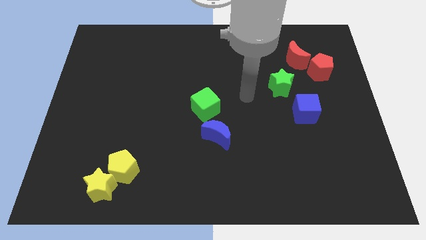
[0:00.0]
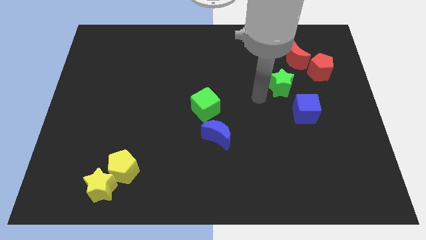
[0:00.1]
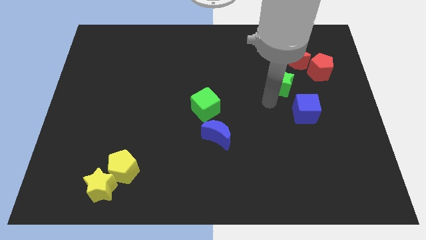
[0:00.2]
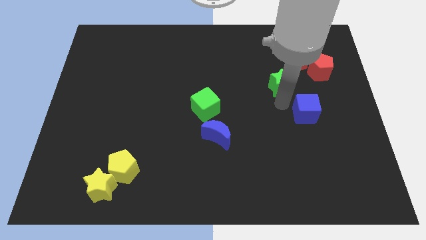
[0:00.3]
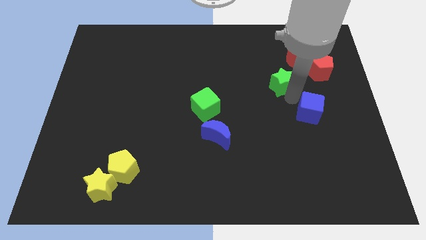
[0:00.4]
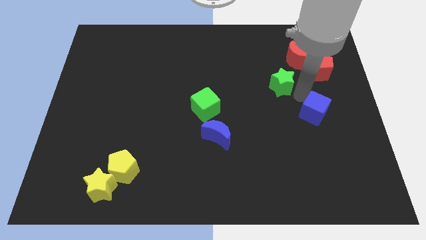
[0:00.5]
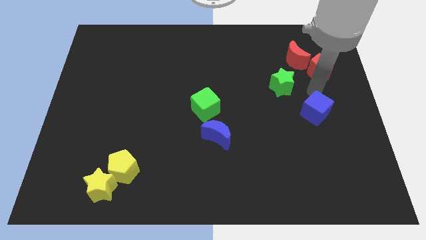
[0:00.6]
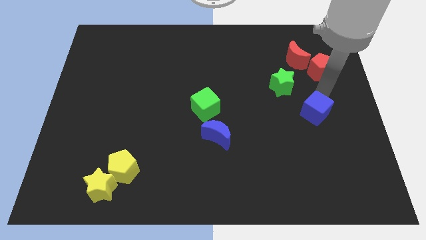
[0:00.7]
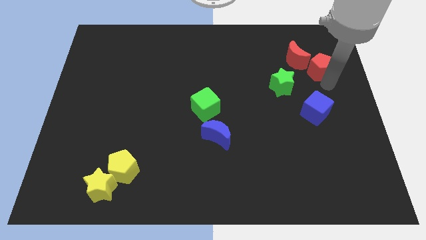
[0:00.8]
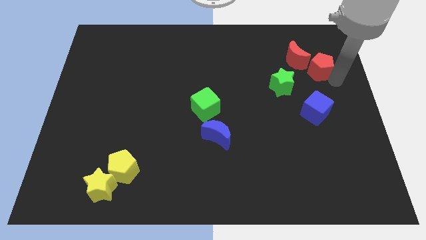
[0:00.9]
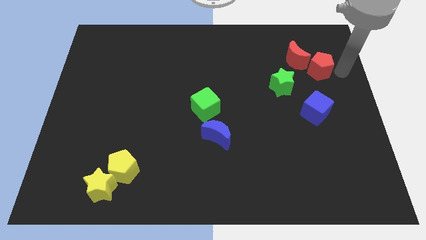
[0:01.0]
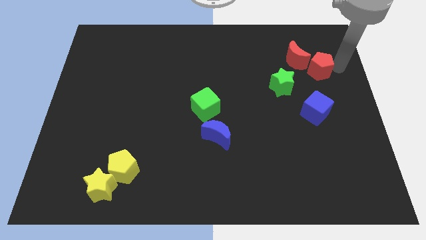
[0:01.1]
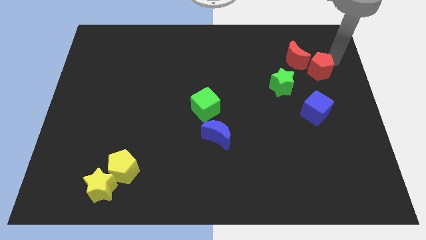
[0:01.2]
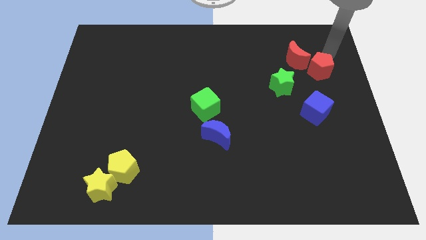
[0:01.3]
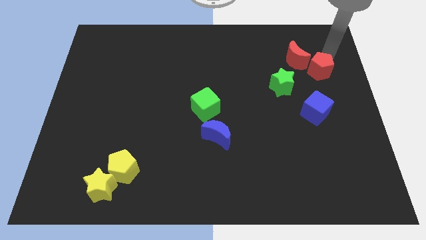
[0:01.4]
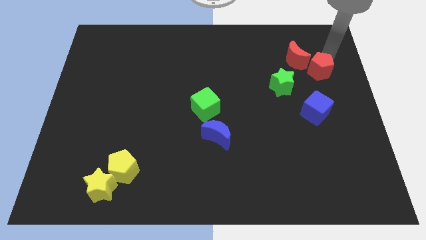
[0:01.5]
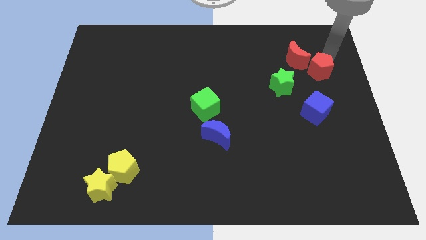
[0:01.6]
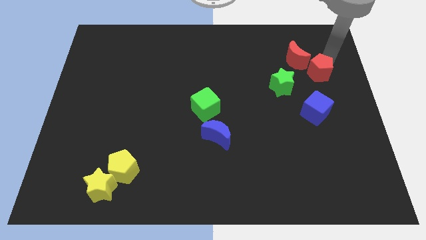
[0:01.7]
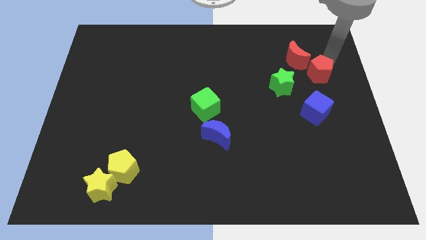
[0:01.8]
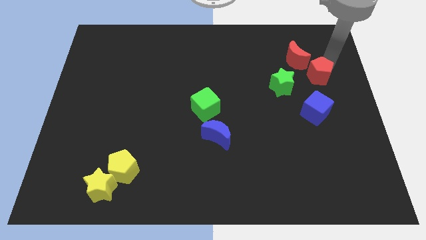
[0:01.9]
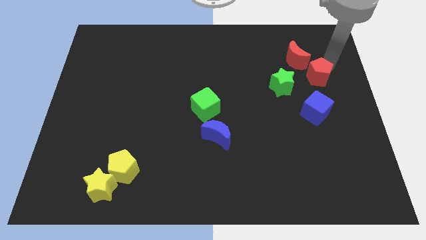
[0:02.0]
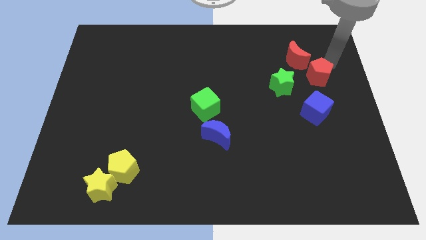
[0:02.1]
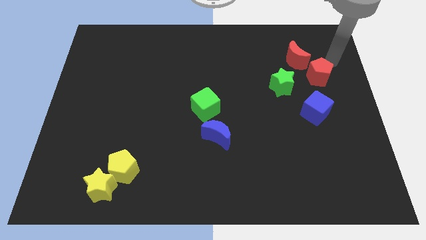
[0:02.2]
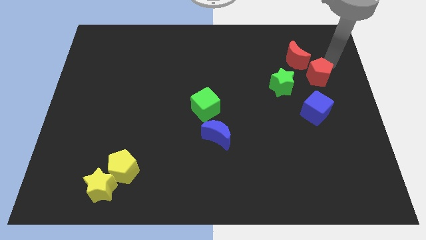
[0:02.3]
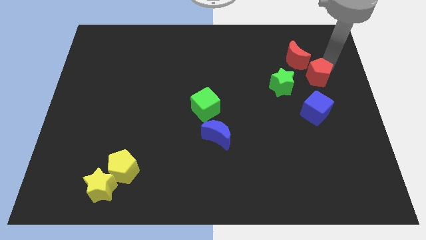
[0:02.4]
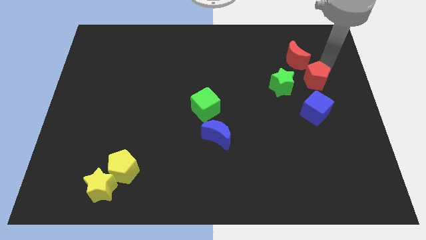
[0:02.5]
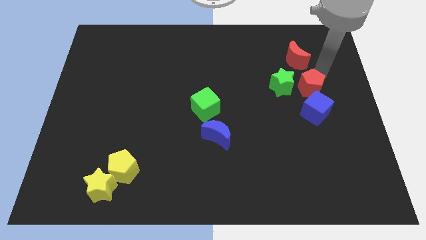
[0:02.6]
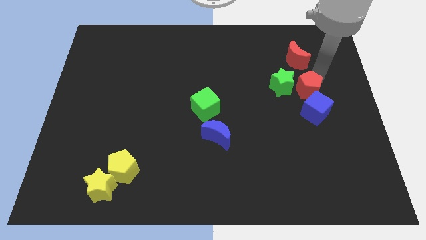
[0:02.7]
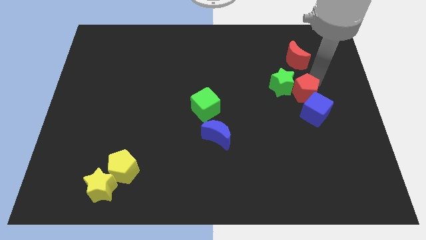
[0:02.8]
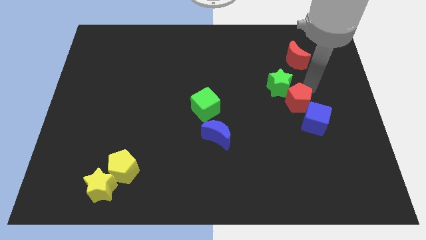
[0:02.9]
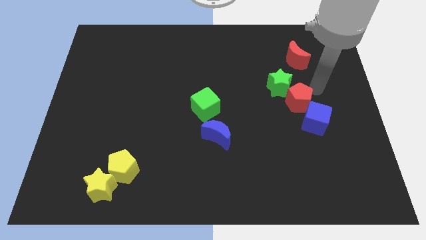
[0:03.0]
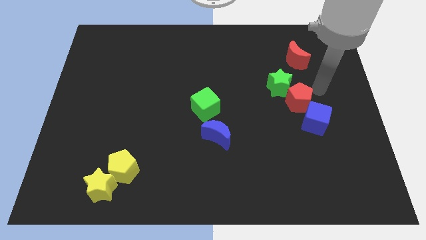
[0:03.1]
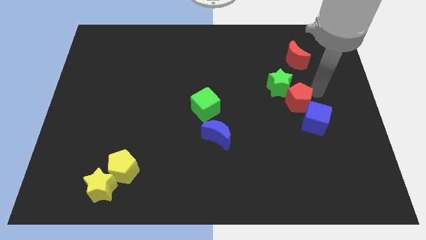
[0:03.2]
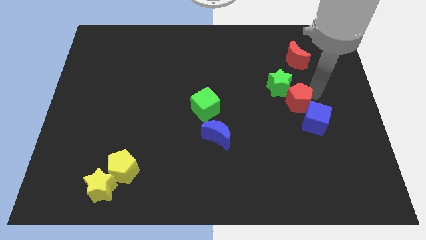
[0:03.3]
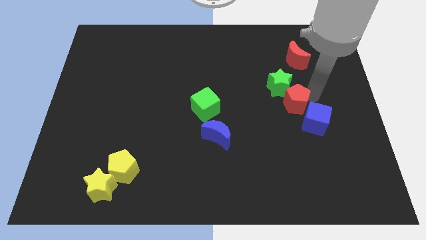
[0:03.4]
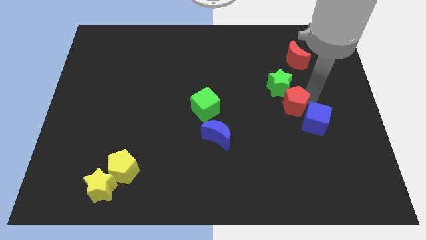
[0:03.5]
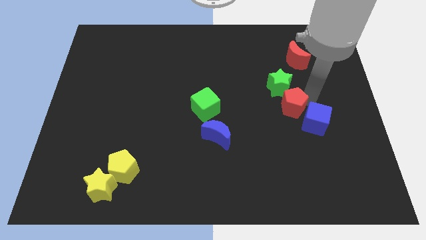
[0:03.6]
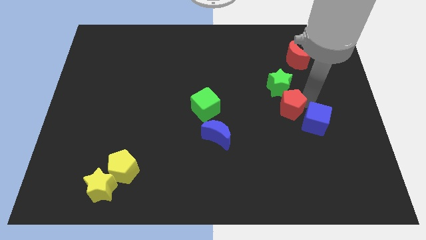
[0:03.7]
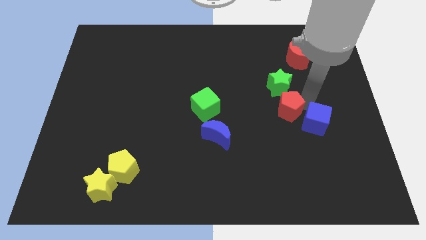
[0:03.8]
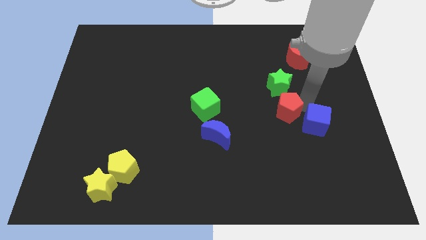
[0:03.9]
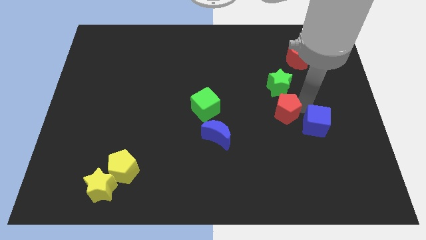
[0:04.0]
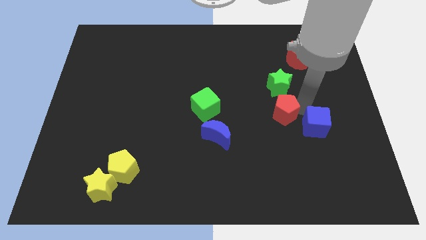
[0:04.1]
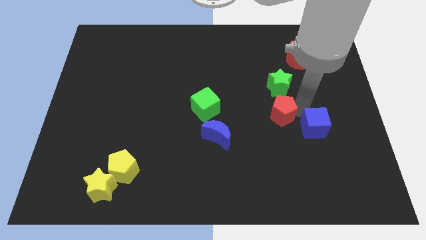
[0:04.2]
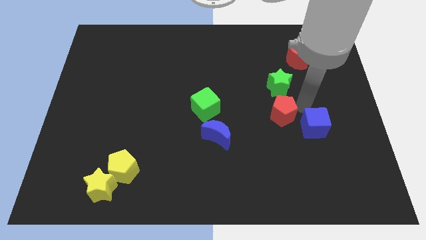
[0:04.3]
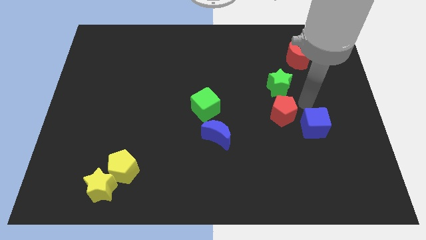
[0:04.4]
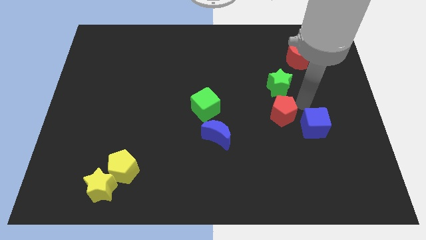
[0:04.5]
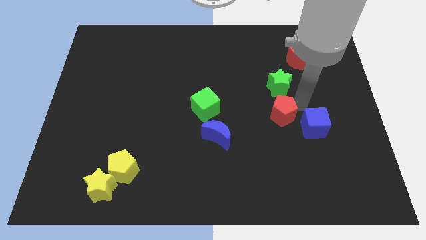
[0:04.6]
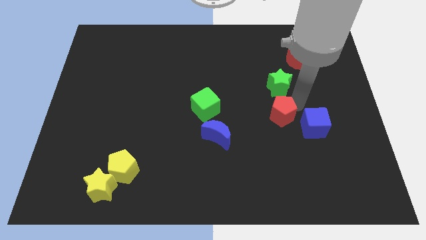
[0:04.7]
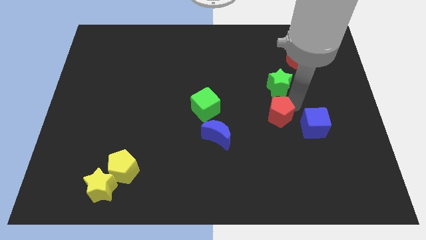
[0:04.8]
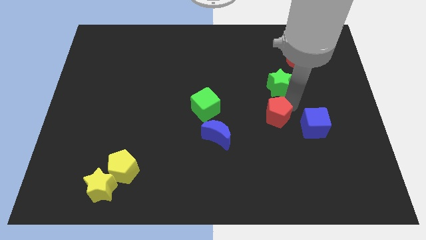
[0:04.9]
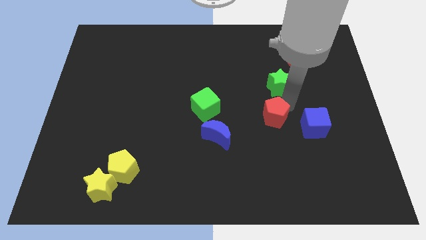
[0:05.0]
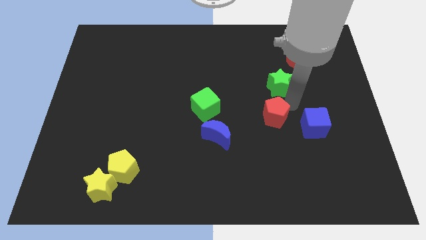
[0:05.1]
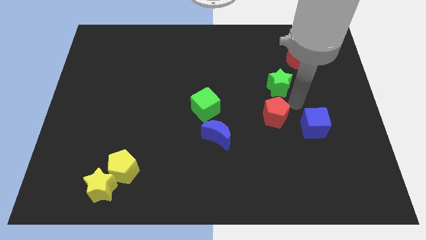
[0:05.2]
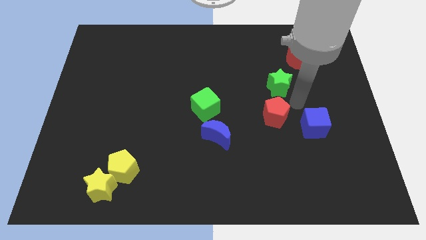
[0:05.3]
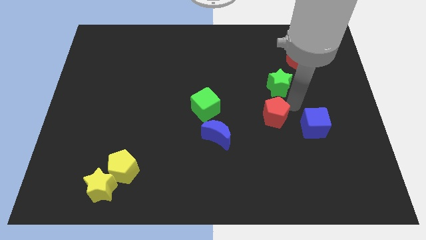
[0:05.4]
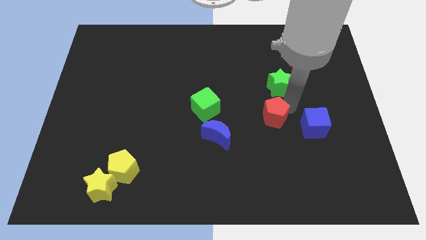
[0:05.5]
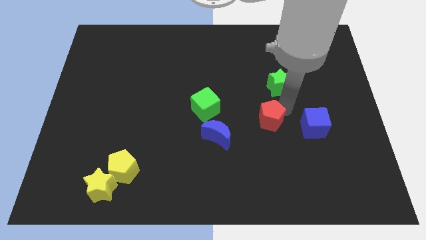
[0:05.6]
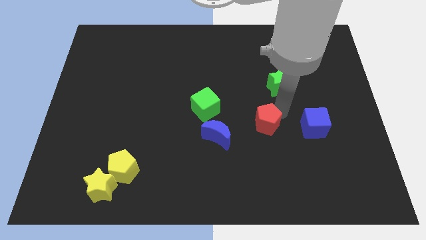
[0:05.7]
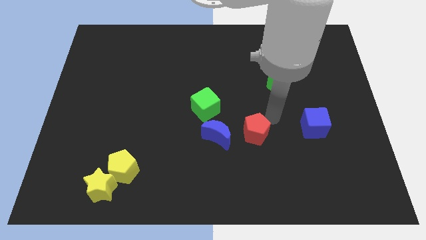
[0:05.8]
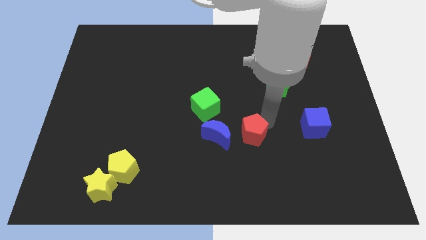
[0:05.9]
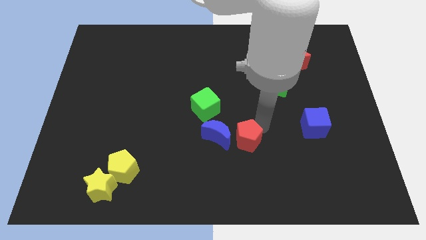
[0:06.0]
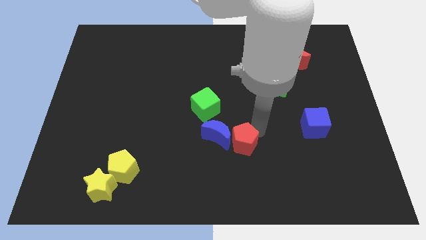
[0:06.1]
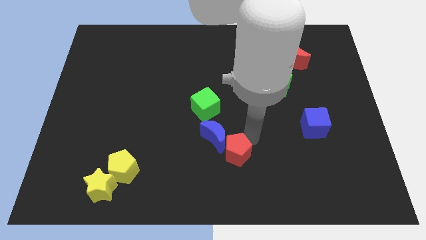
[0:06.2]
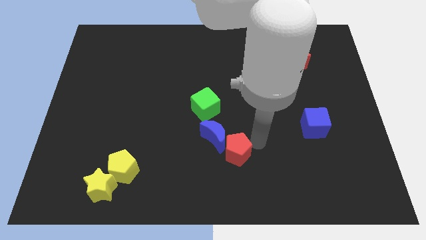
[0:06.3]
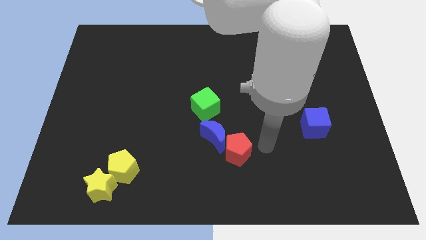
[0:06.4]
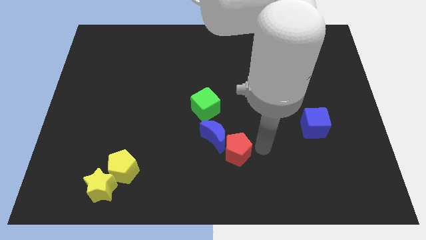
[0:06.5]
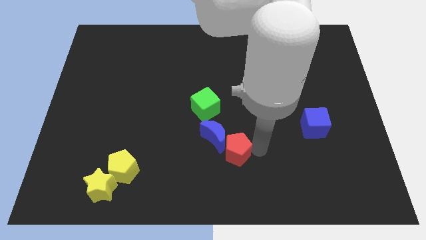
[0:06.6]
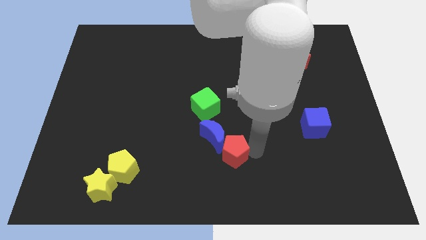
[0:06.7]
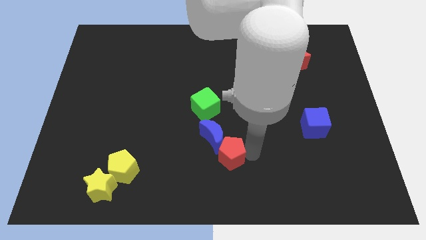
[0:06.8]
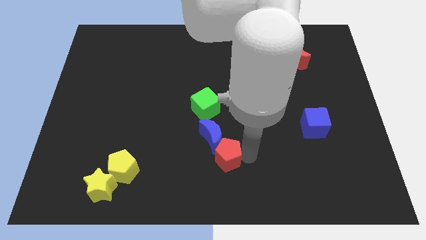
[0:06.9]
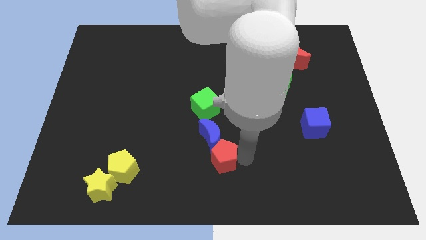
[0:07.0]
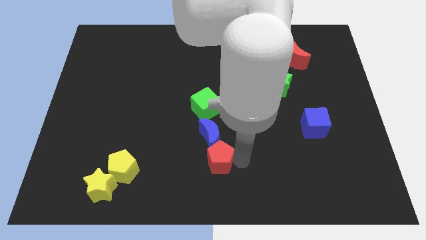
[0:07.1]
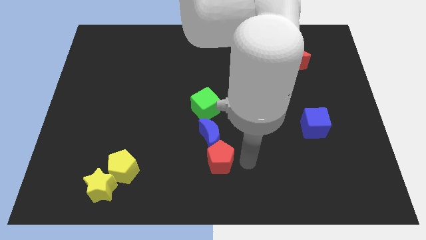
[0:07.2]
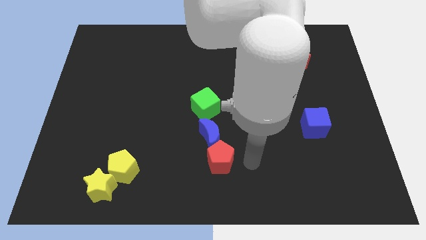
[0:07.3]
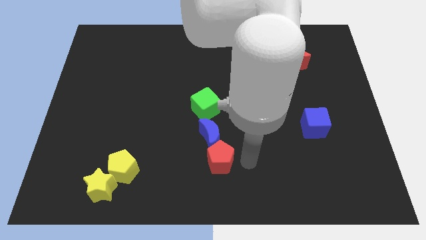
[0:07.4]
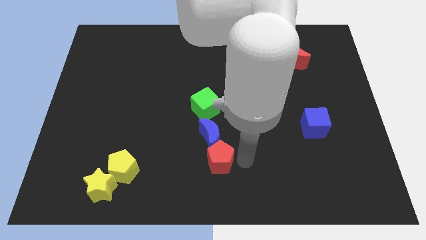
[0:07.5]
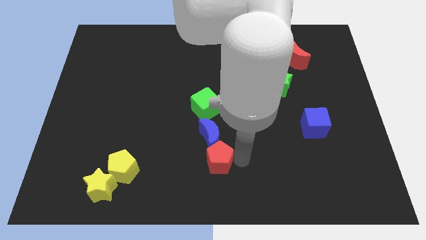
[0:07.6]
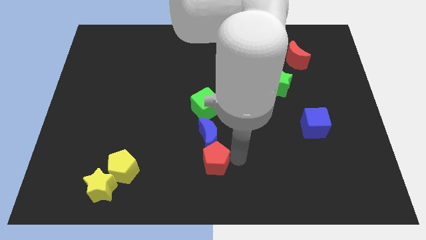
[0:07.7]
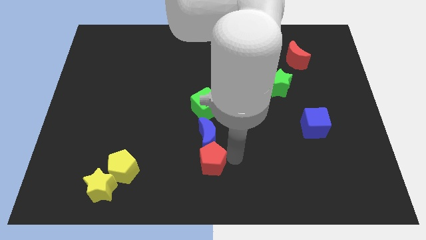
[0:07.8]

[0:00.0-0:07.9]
push the red pentagon to the bottom left of the blue moon

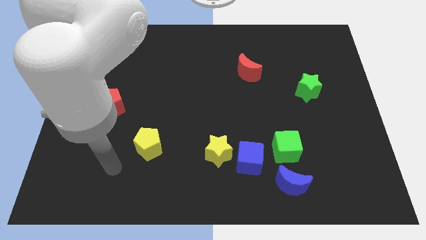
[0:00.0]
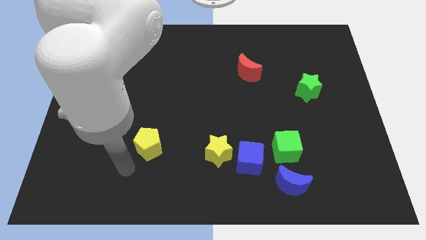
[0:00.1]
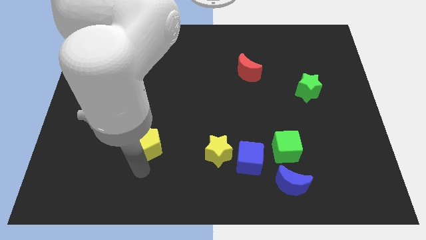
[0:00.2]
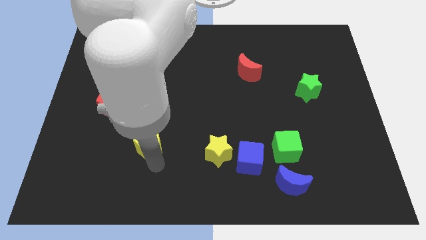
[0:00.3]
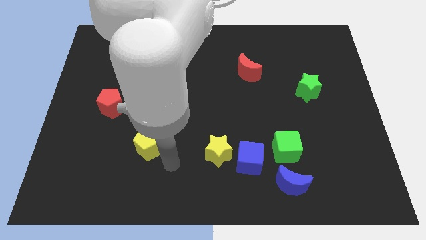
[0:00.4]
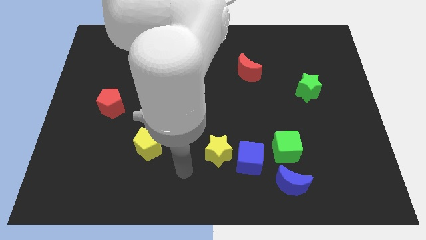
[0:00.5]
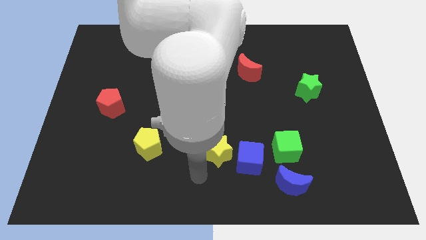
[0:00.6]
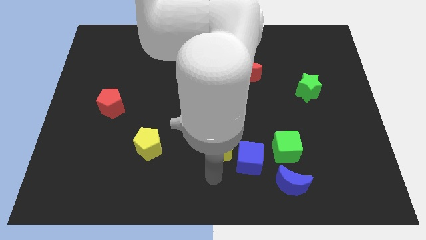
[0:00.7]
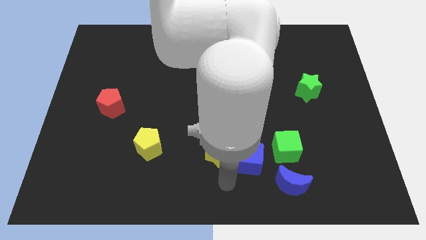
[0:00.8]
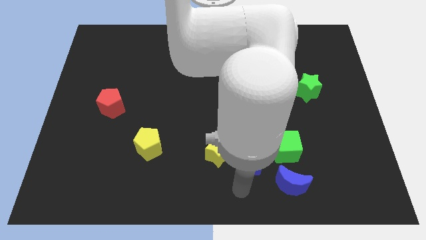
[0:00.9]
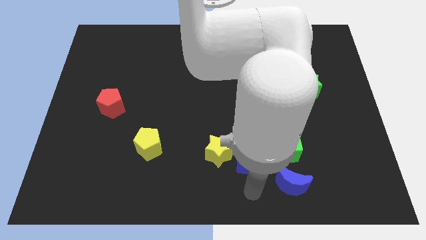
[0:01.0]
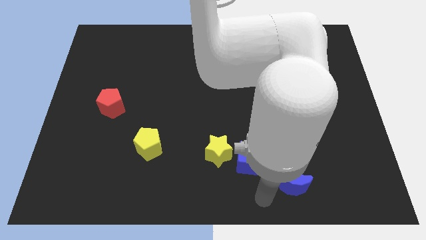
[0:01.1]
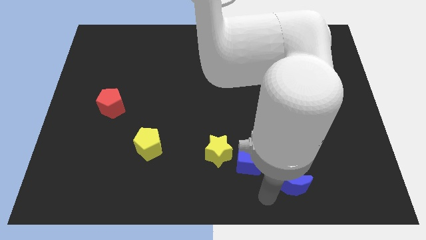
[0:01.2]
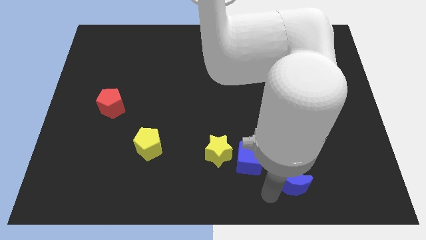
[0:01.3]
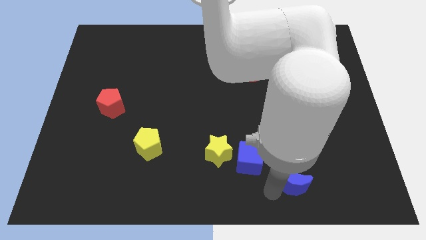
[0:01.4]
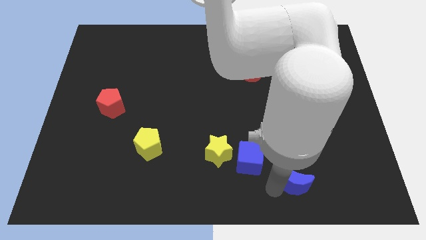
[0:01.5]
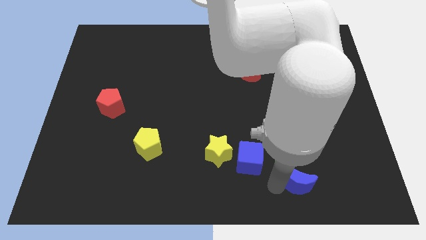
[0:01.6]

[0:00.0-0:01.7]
put the blue moon diagonally down and to the right of the green cube
